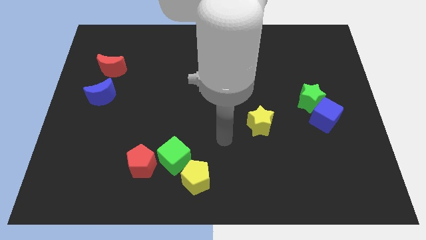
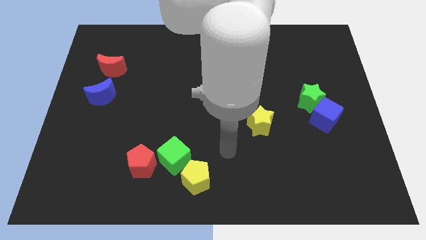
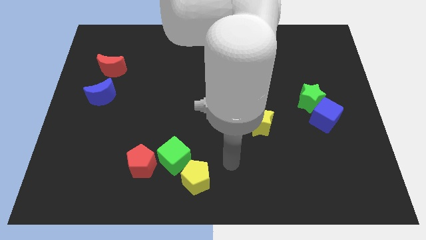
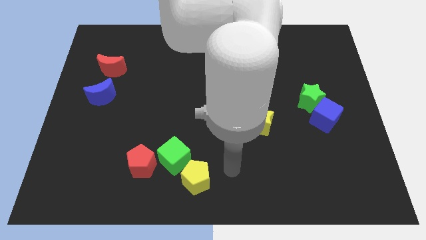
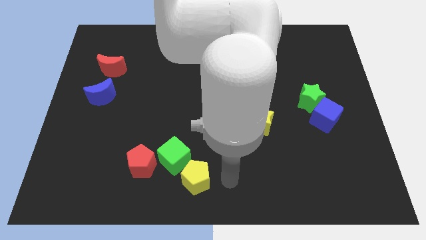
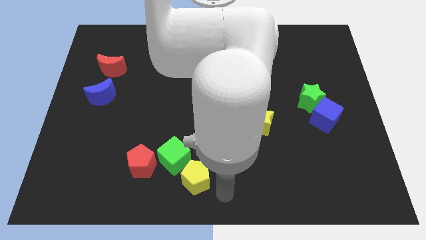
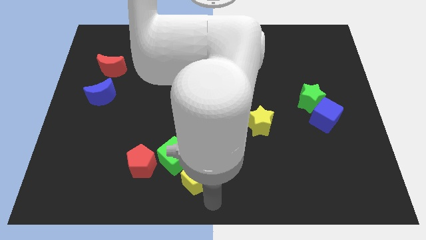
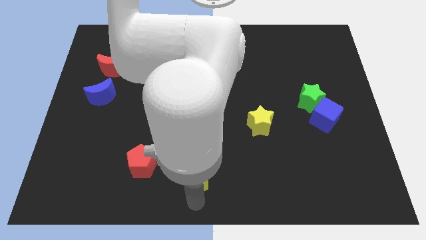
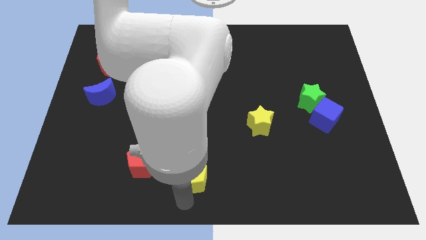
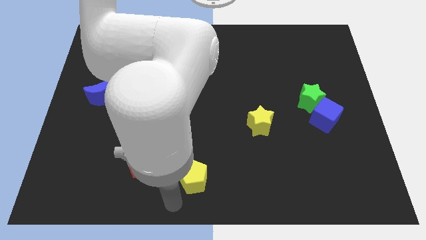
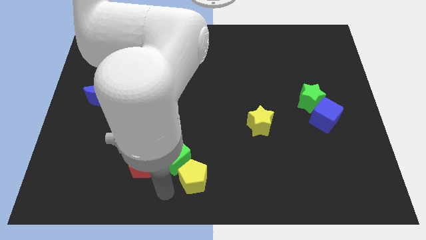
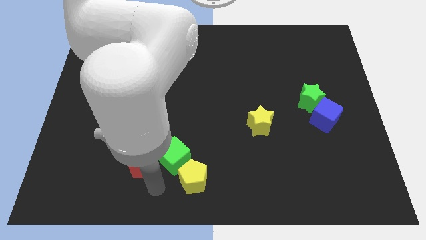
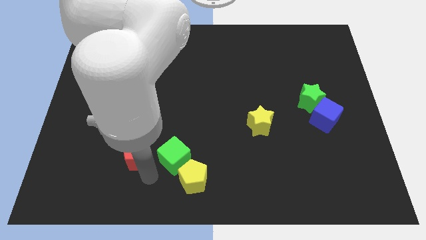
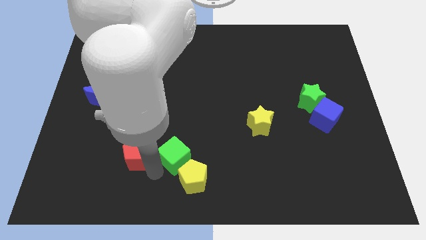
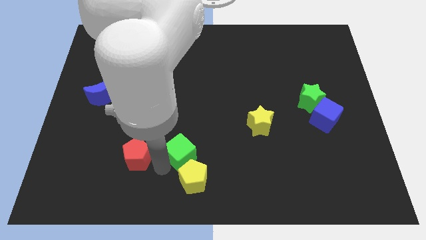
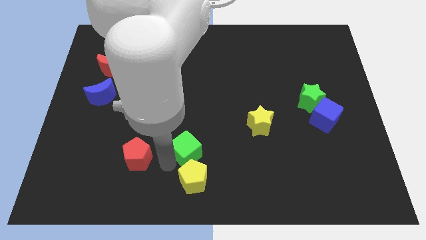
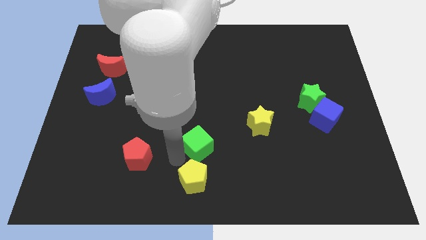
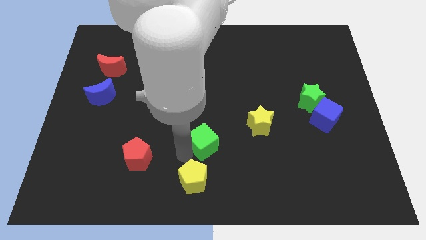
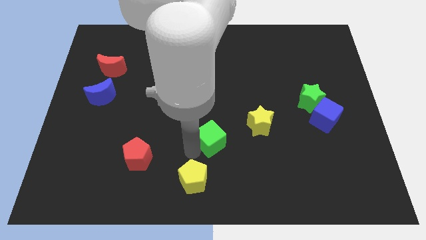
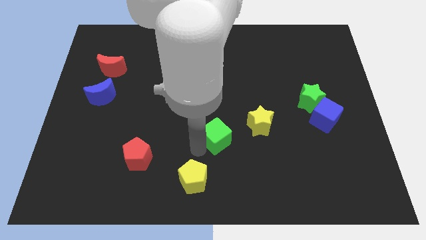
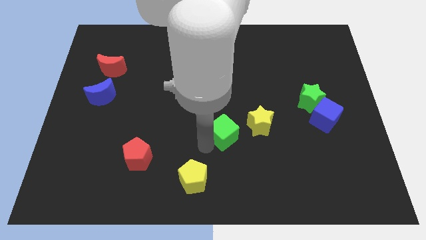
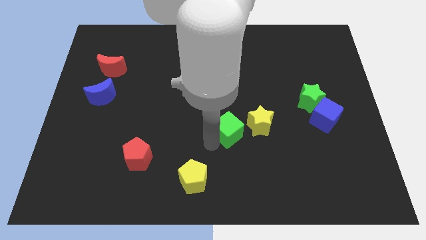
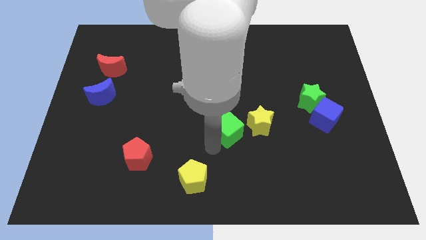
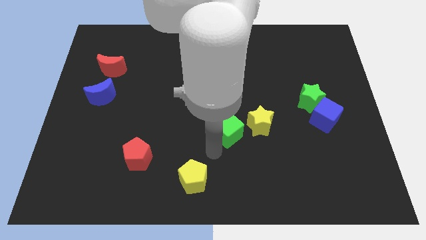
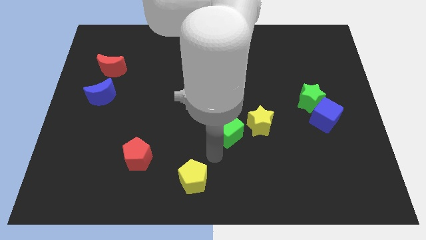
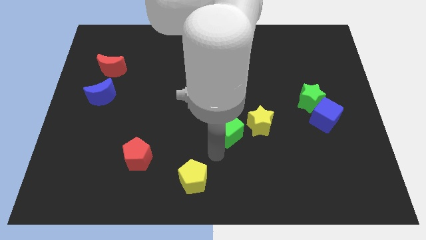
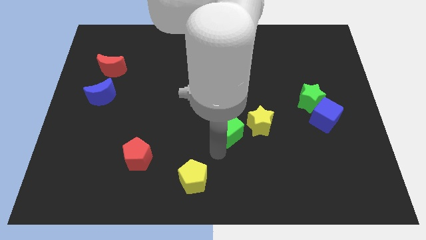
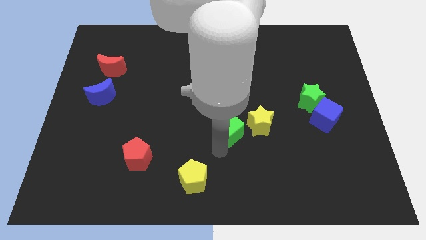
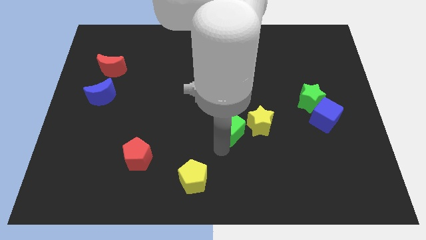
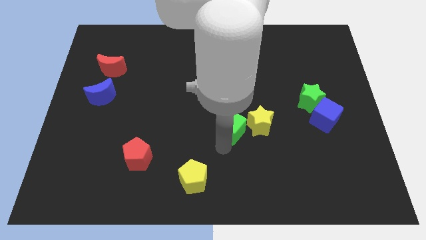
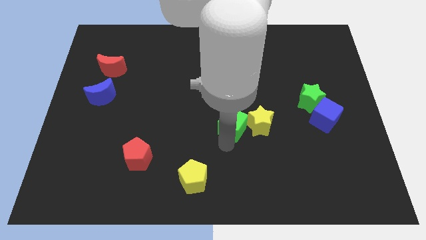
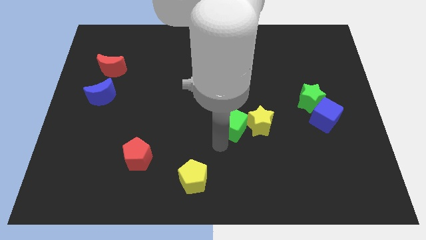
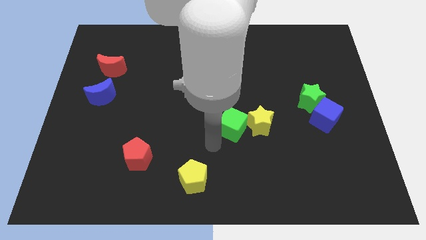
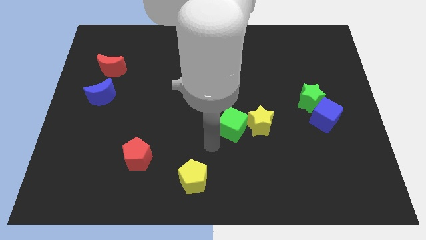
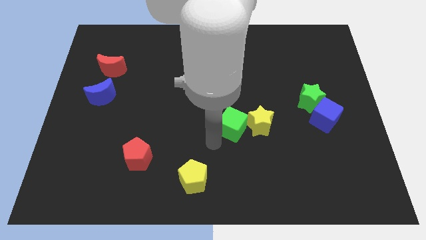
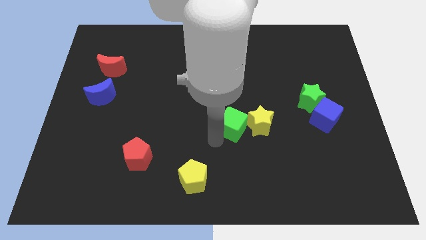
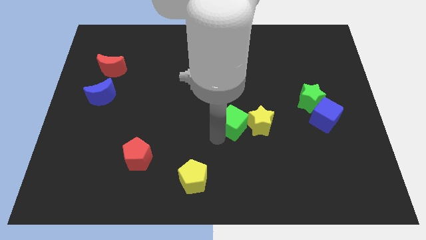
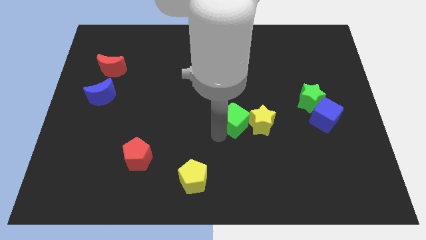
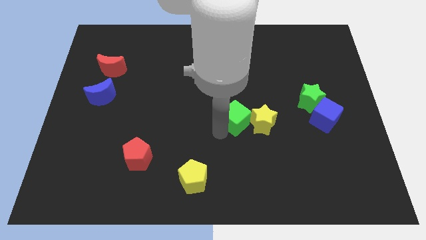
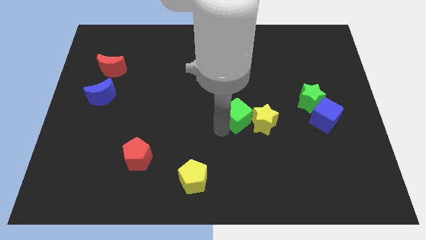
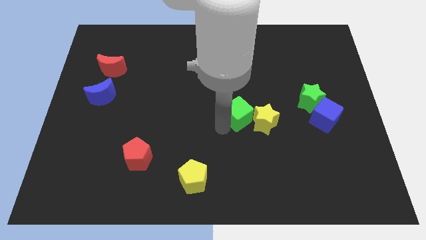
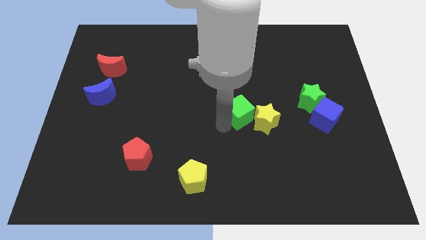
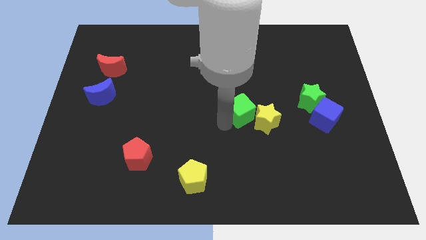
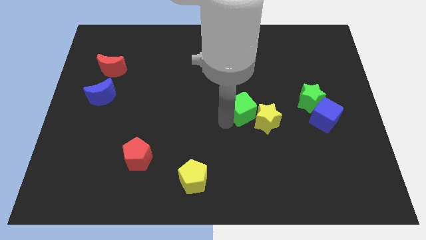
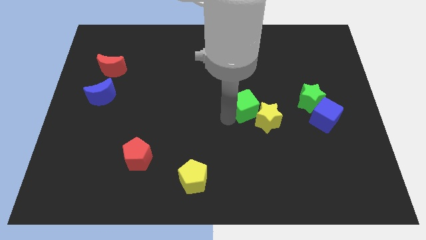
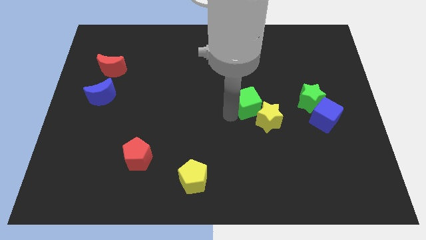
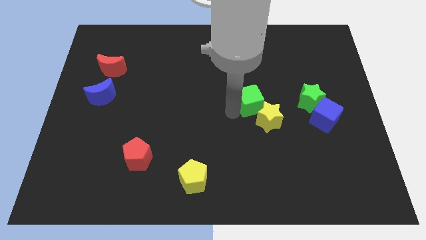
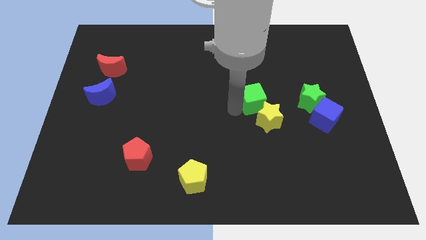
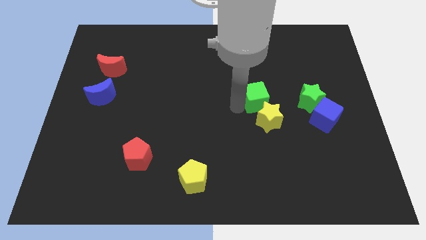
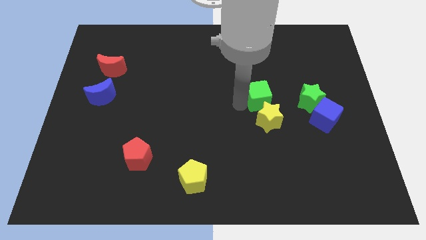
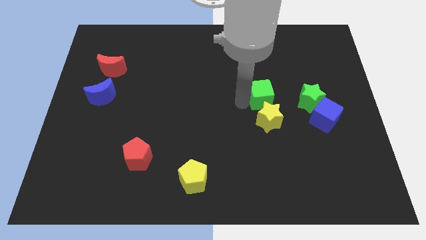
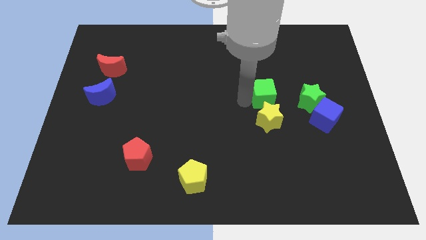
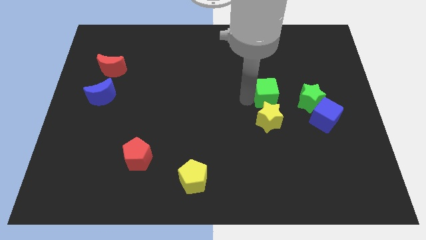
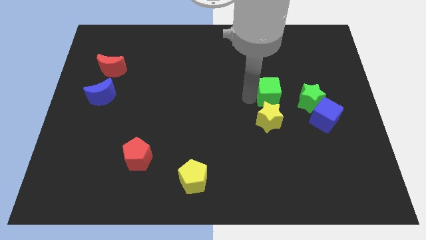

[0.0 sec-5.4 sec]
move the green cube diagonally up and to the right of the yellow star
